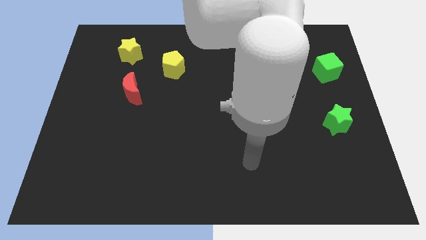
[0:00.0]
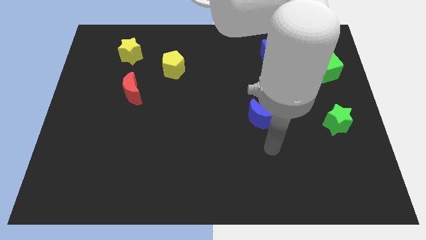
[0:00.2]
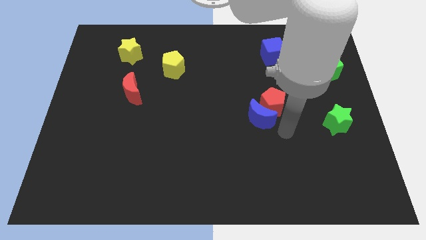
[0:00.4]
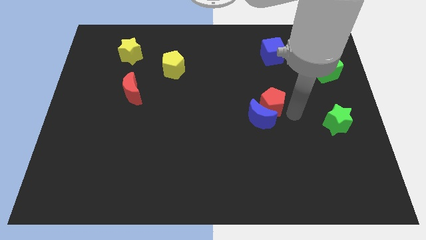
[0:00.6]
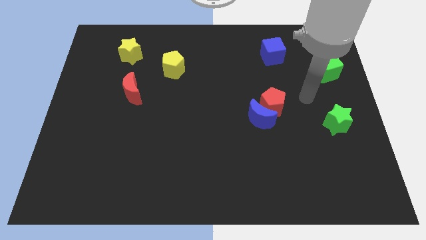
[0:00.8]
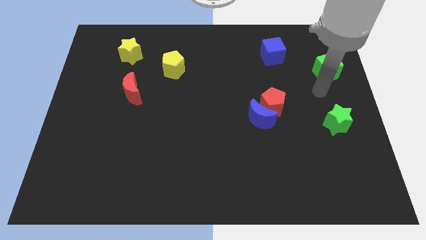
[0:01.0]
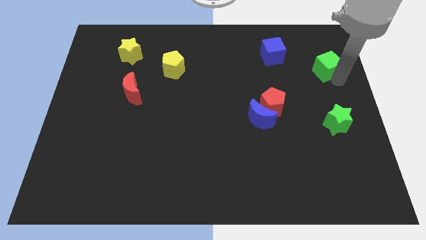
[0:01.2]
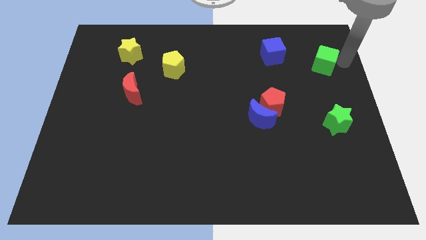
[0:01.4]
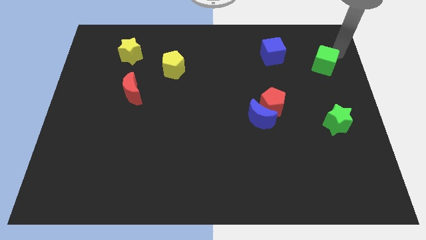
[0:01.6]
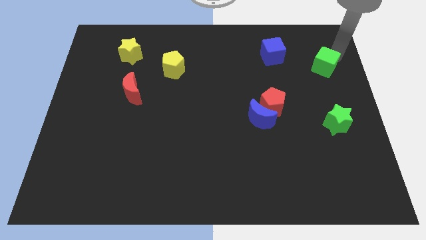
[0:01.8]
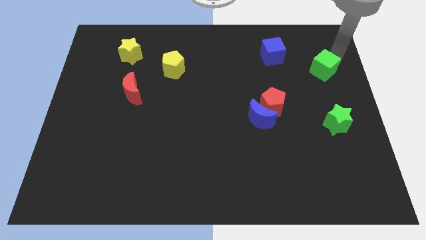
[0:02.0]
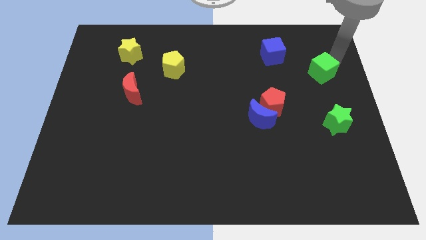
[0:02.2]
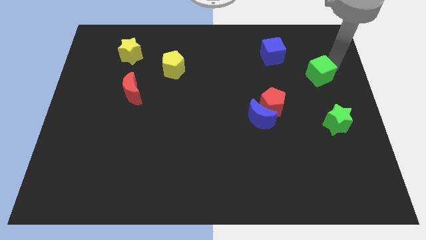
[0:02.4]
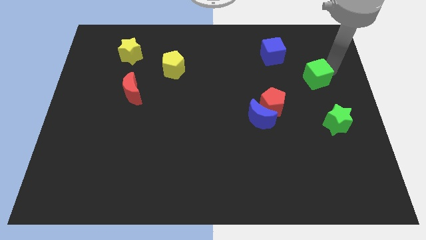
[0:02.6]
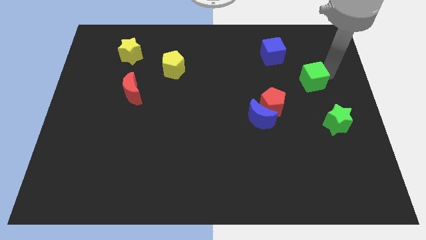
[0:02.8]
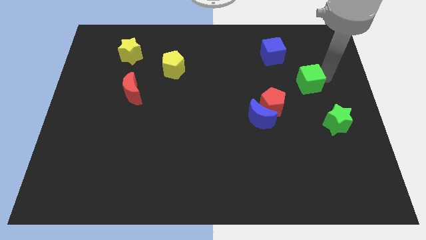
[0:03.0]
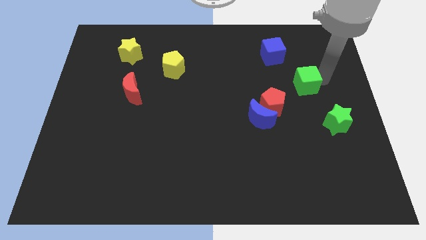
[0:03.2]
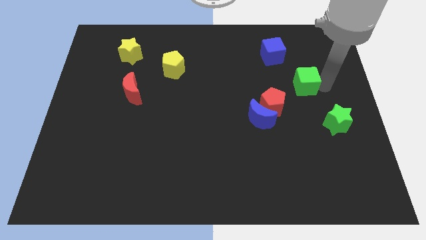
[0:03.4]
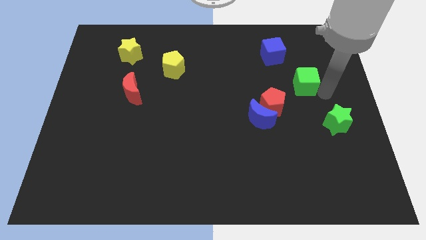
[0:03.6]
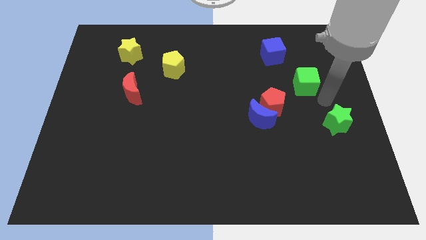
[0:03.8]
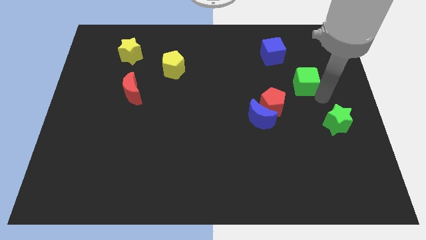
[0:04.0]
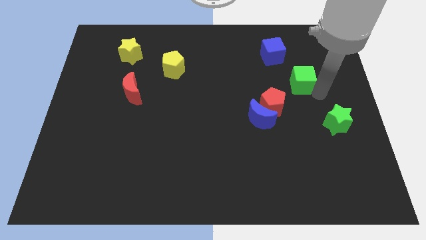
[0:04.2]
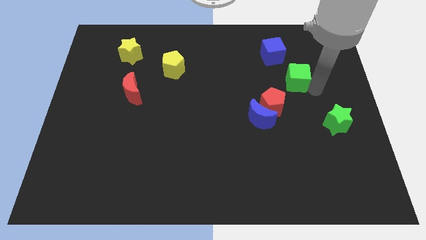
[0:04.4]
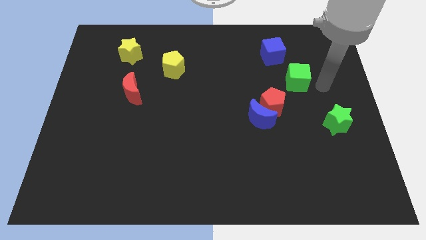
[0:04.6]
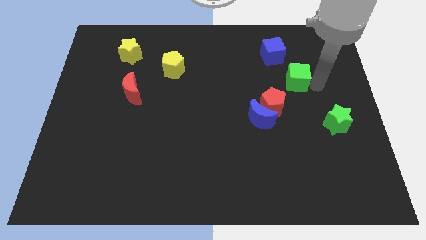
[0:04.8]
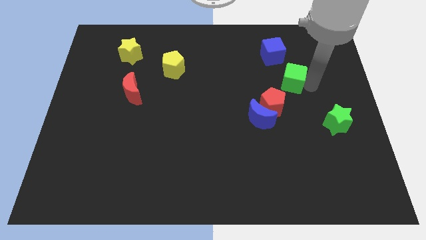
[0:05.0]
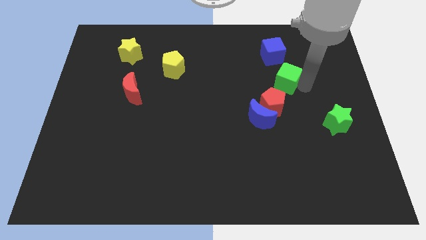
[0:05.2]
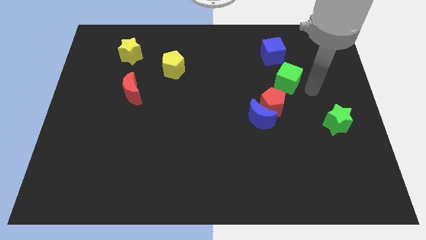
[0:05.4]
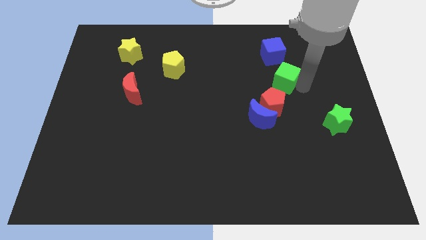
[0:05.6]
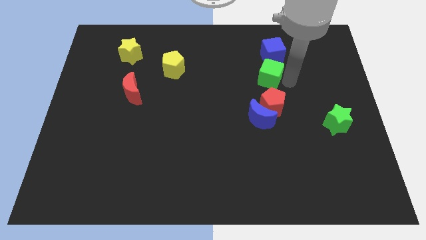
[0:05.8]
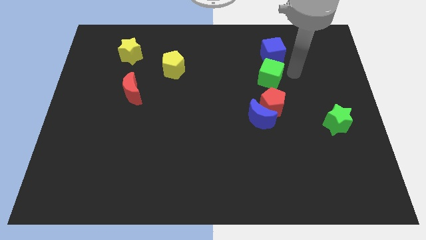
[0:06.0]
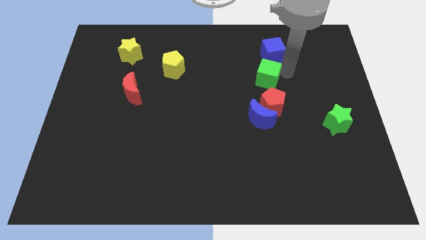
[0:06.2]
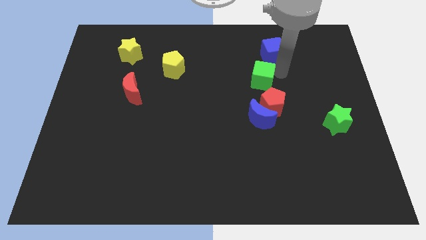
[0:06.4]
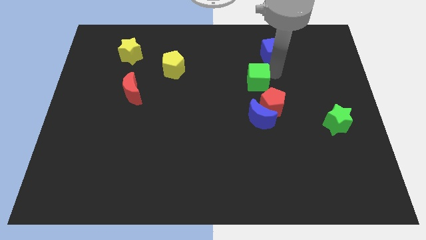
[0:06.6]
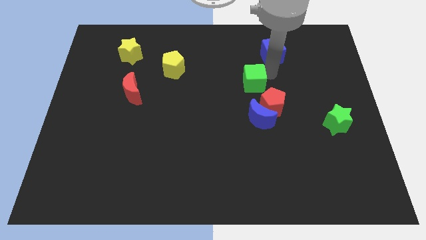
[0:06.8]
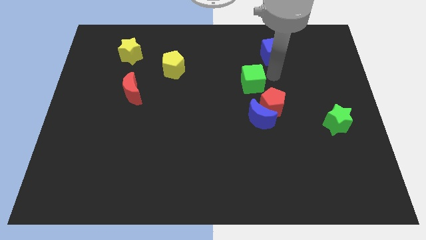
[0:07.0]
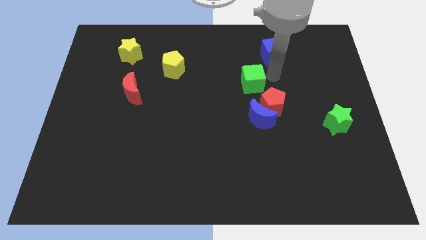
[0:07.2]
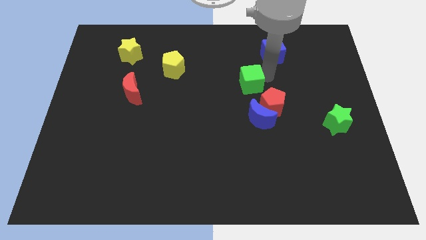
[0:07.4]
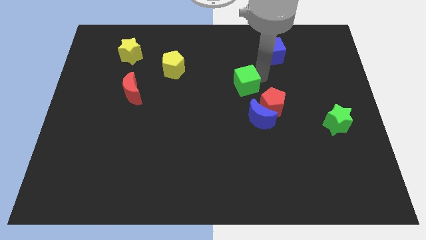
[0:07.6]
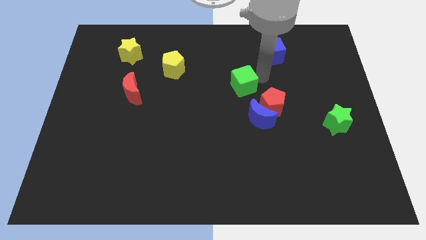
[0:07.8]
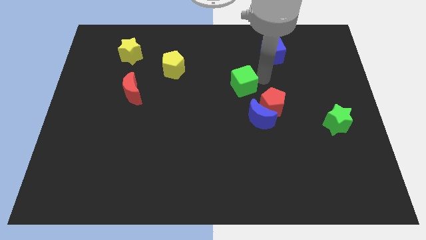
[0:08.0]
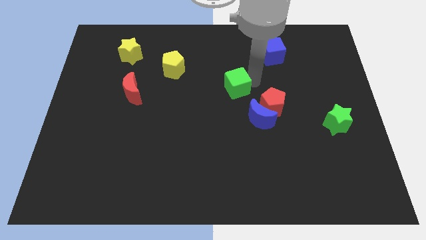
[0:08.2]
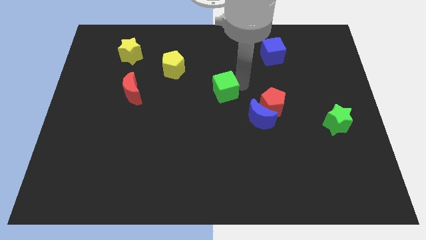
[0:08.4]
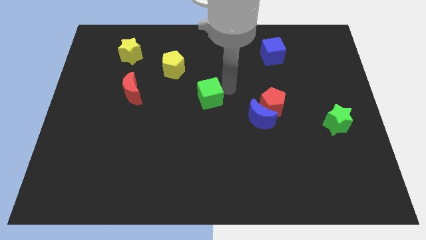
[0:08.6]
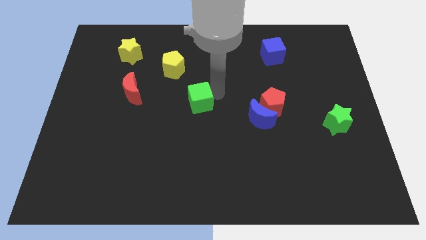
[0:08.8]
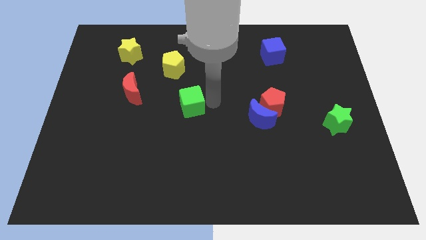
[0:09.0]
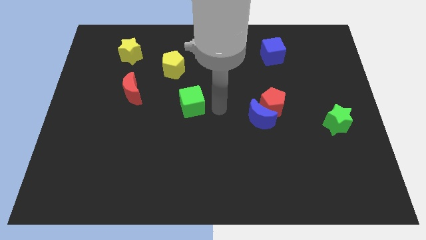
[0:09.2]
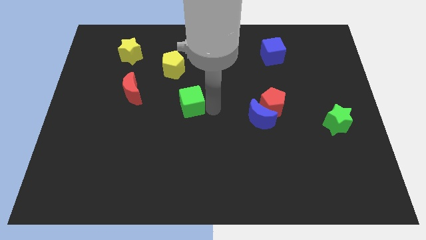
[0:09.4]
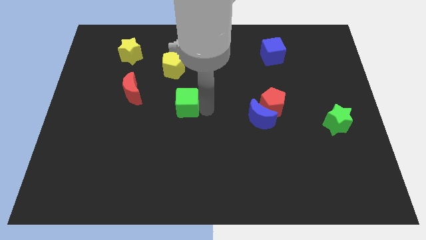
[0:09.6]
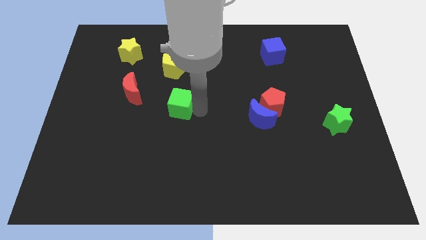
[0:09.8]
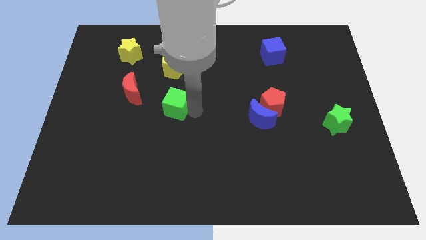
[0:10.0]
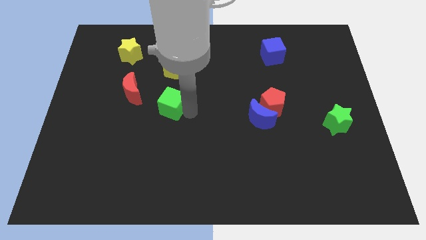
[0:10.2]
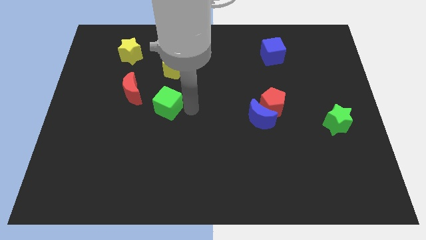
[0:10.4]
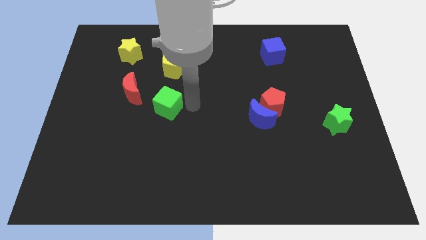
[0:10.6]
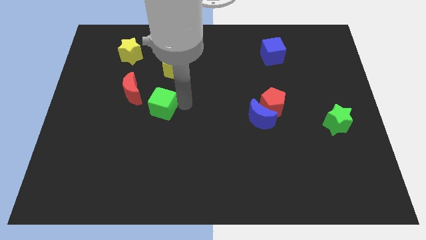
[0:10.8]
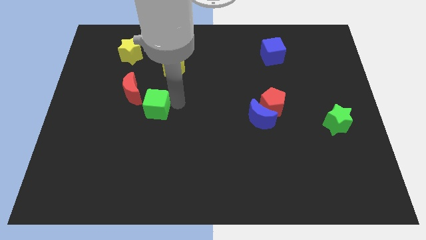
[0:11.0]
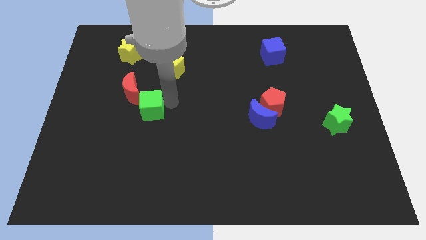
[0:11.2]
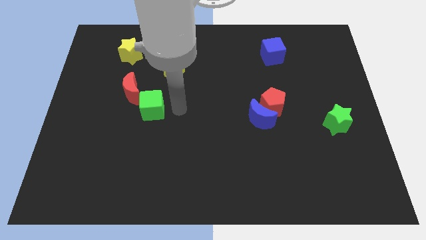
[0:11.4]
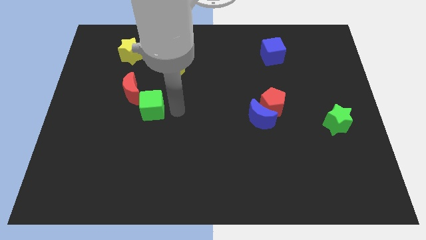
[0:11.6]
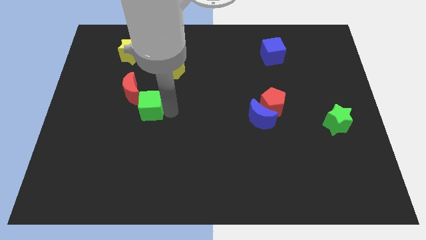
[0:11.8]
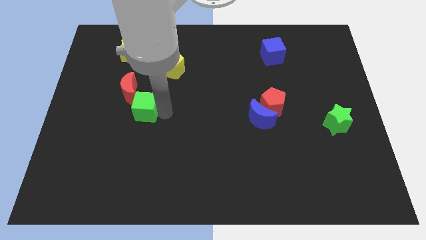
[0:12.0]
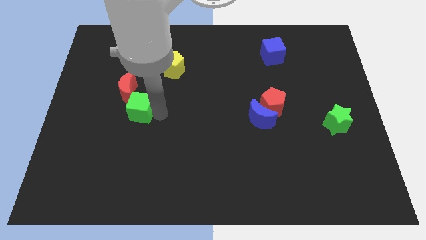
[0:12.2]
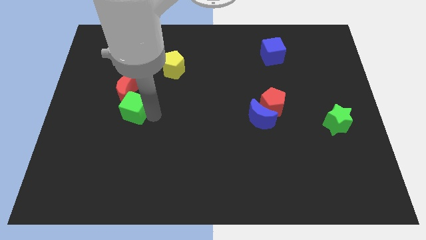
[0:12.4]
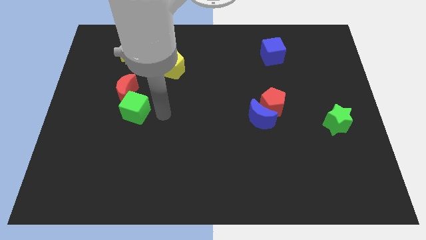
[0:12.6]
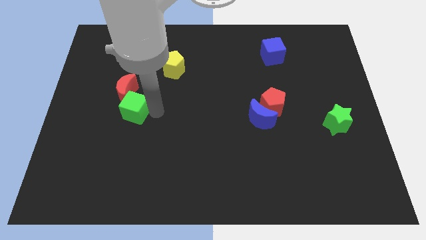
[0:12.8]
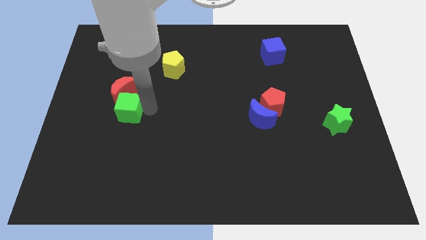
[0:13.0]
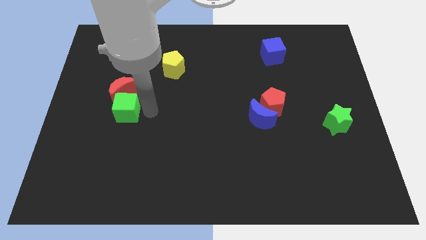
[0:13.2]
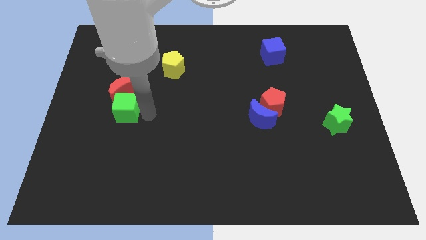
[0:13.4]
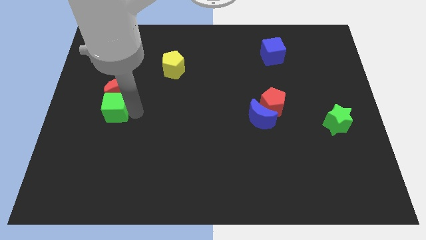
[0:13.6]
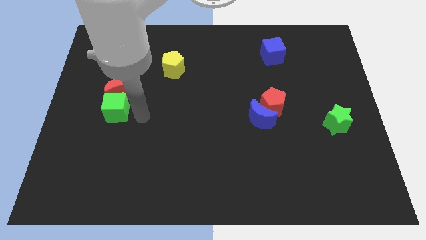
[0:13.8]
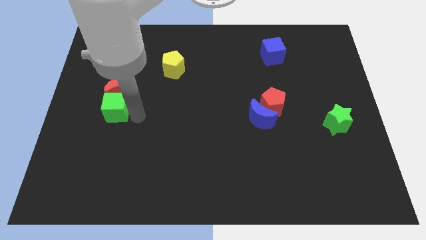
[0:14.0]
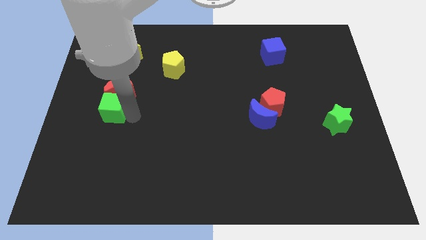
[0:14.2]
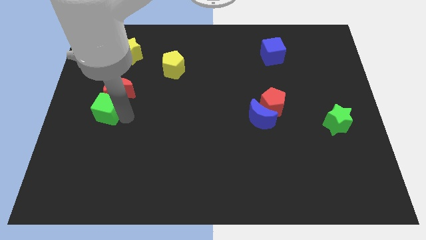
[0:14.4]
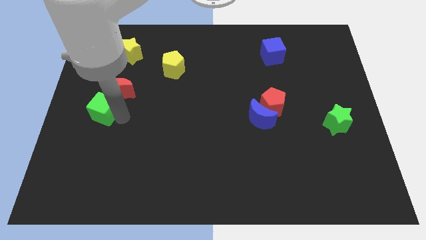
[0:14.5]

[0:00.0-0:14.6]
slide the green cube to the left side of the board

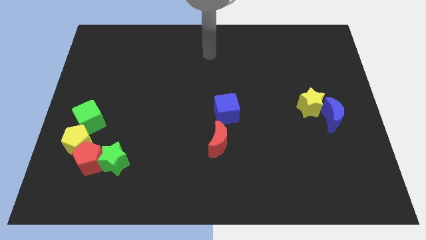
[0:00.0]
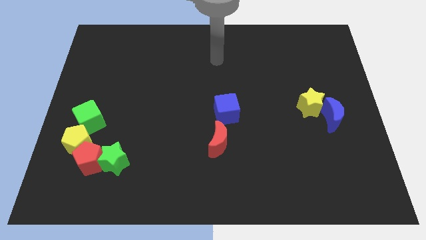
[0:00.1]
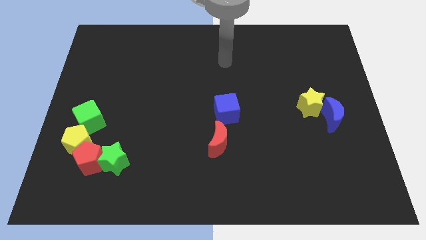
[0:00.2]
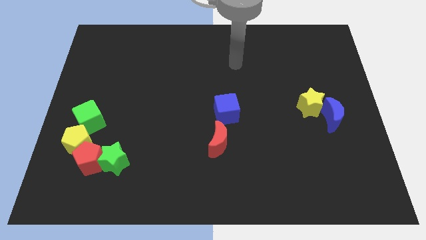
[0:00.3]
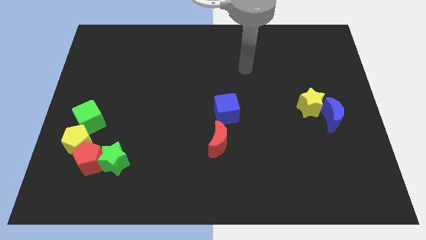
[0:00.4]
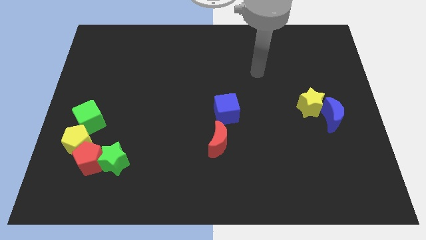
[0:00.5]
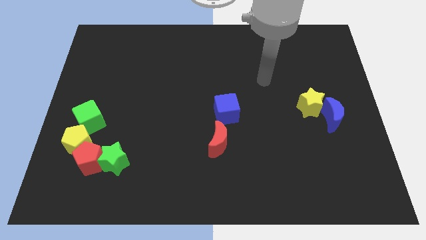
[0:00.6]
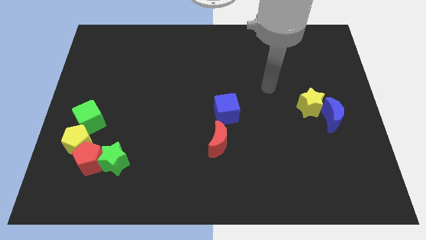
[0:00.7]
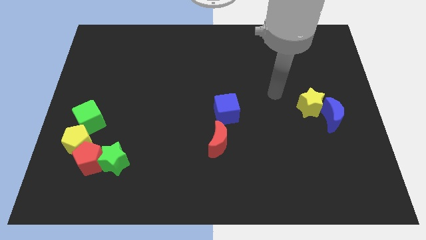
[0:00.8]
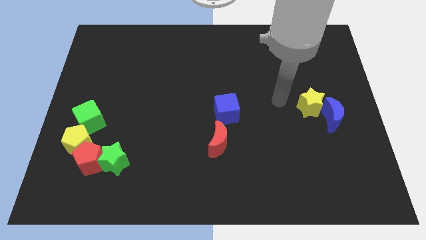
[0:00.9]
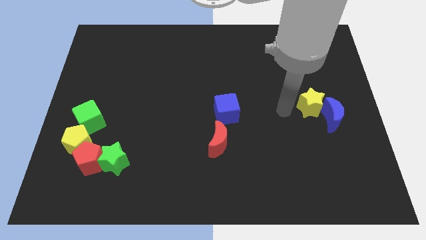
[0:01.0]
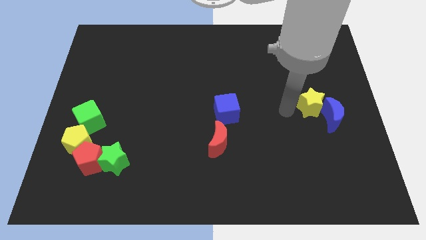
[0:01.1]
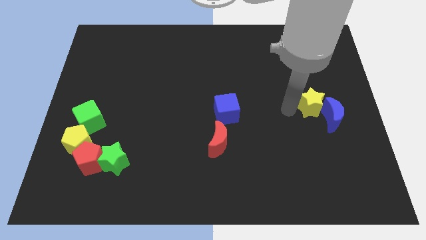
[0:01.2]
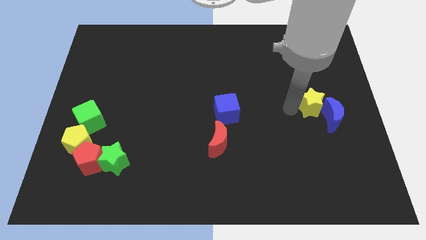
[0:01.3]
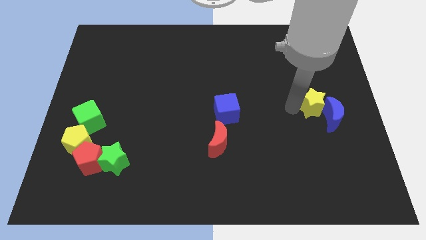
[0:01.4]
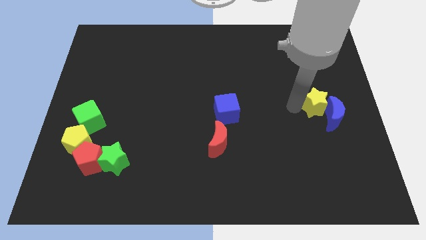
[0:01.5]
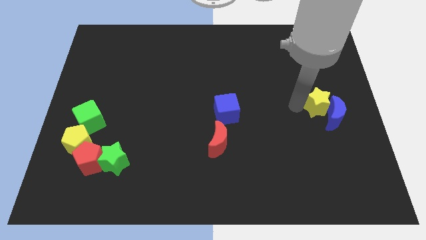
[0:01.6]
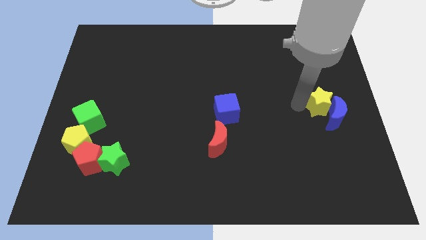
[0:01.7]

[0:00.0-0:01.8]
move the yellow star to the right side
